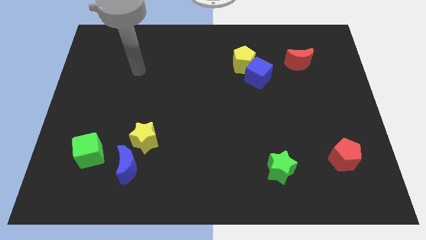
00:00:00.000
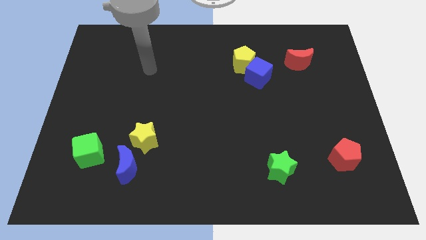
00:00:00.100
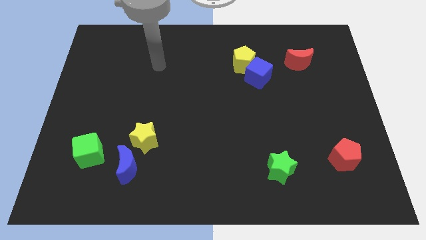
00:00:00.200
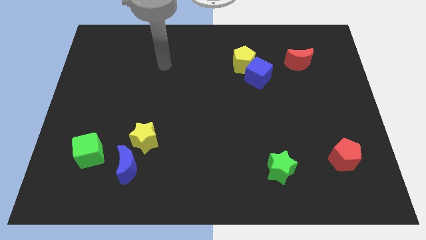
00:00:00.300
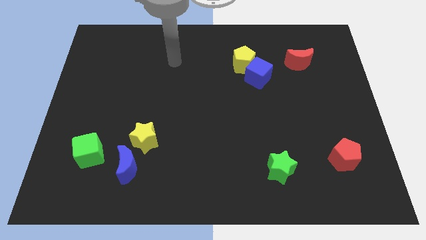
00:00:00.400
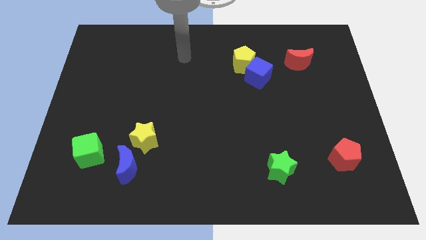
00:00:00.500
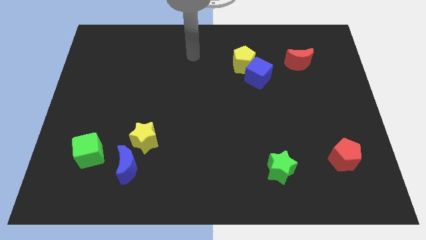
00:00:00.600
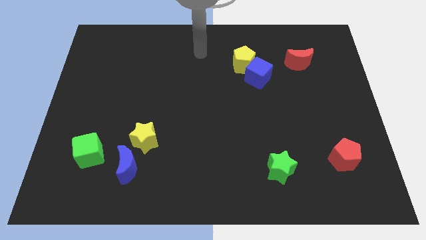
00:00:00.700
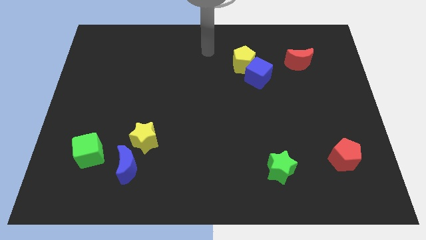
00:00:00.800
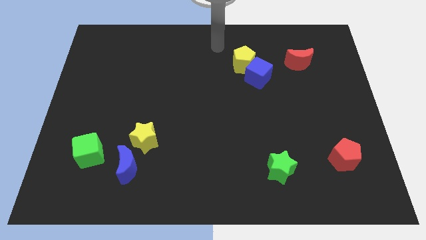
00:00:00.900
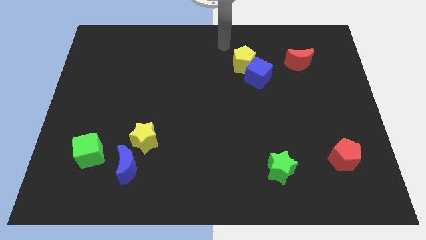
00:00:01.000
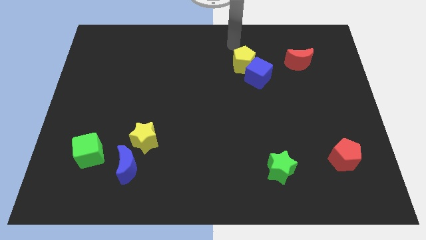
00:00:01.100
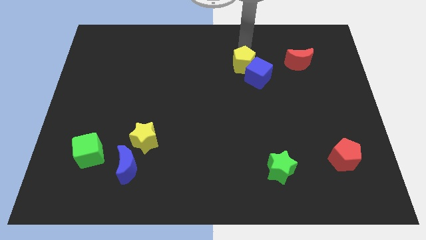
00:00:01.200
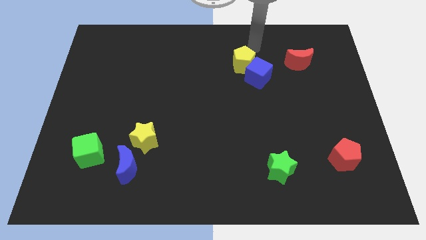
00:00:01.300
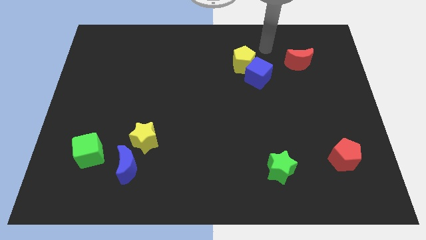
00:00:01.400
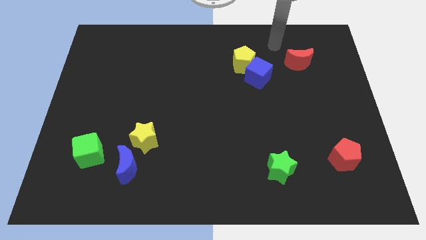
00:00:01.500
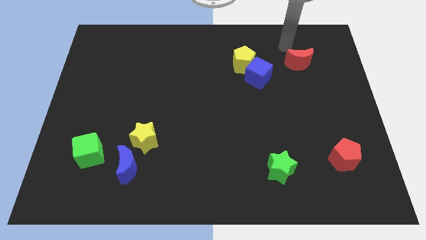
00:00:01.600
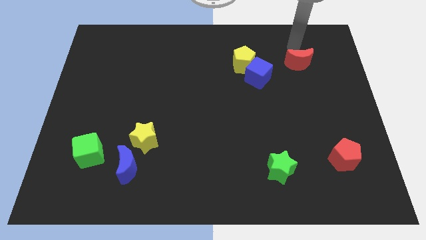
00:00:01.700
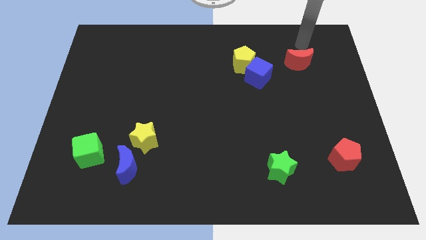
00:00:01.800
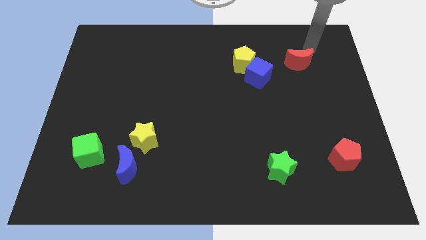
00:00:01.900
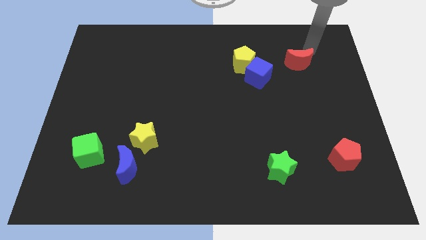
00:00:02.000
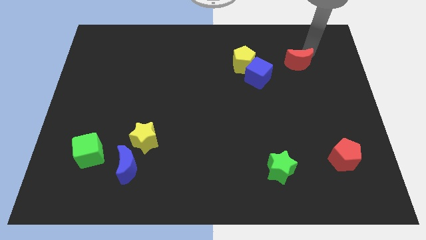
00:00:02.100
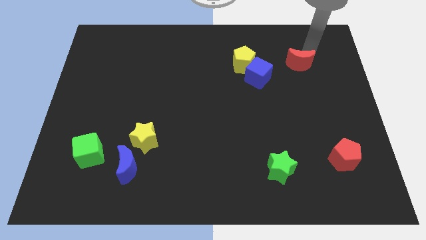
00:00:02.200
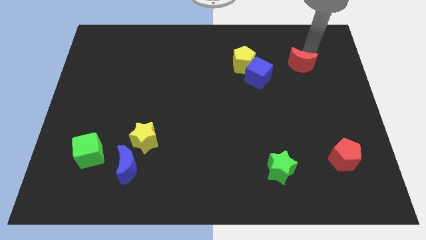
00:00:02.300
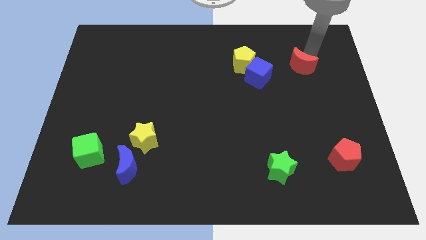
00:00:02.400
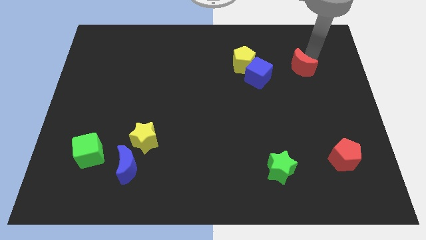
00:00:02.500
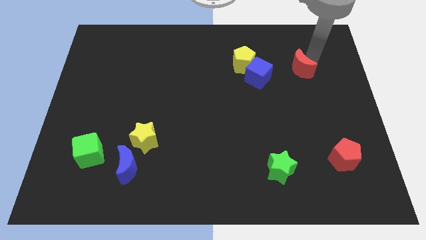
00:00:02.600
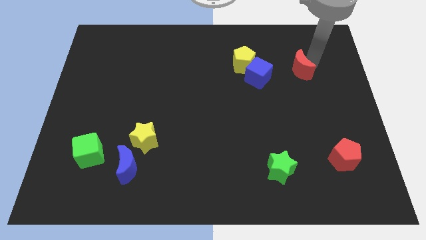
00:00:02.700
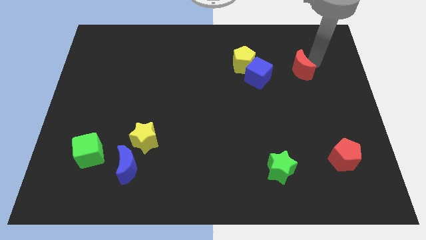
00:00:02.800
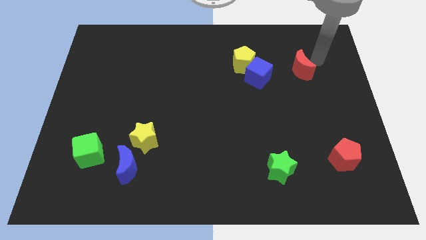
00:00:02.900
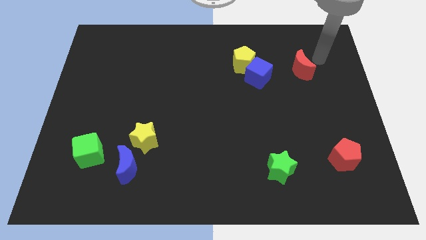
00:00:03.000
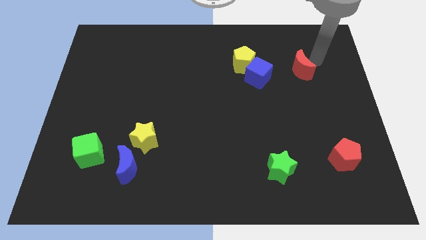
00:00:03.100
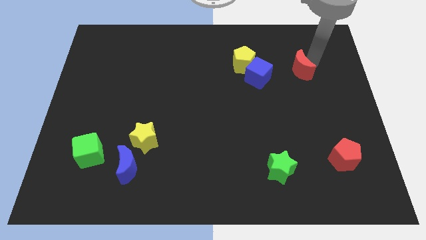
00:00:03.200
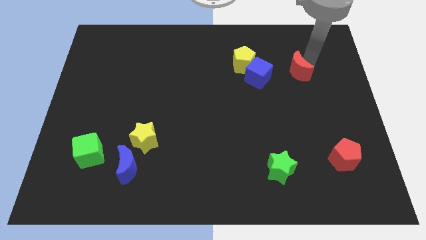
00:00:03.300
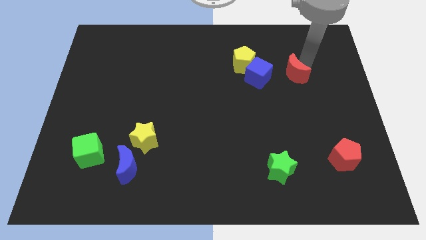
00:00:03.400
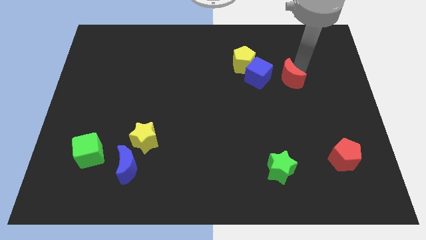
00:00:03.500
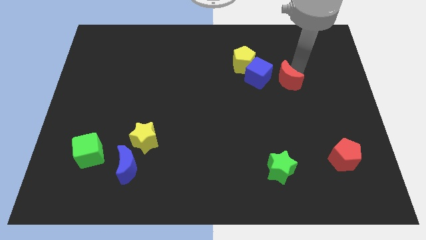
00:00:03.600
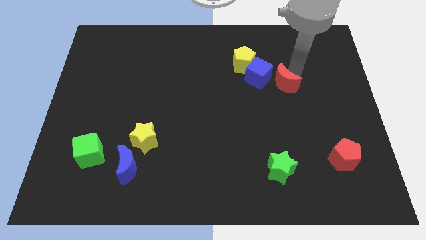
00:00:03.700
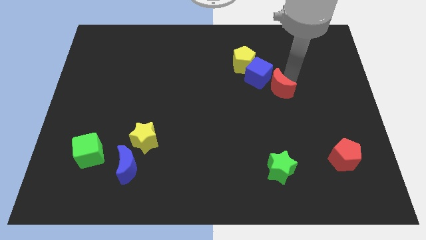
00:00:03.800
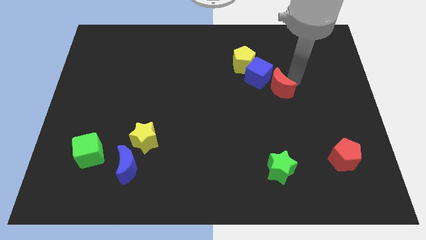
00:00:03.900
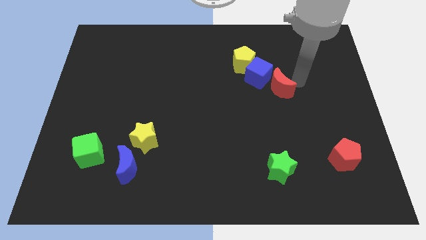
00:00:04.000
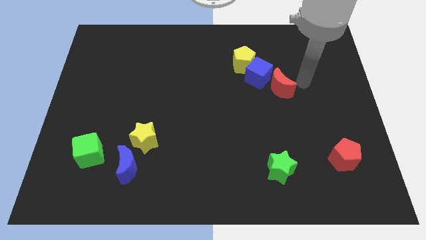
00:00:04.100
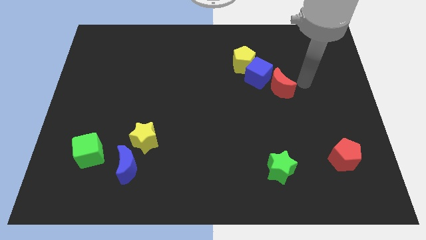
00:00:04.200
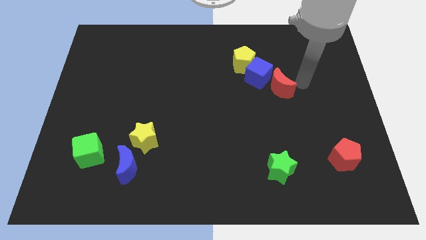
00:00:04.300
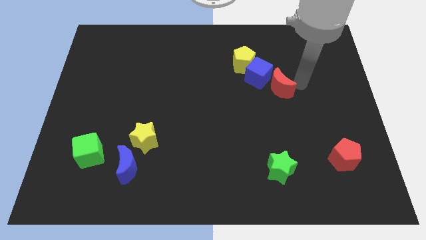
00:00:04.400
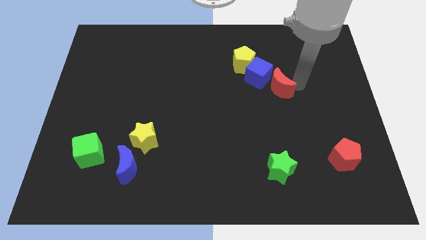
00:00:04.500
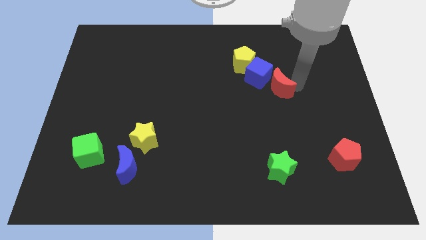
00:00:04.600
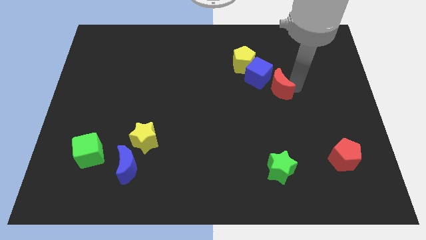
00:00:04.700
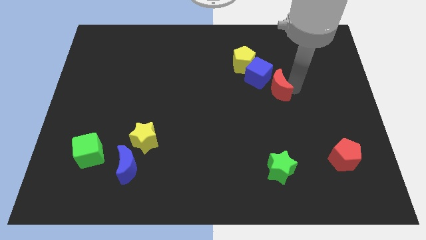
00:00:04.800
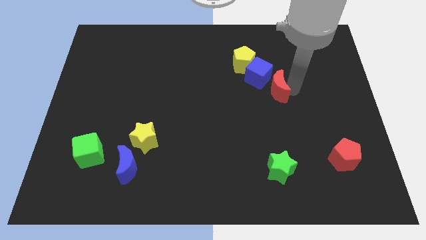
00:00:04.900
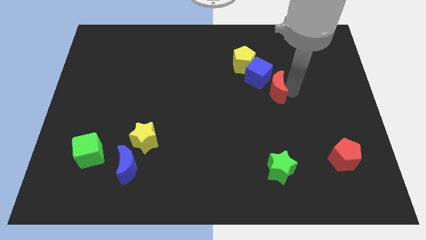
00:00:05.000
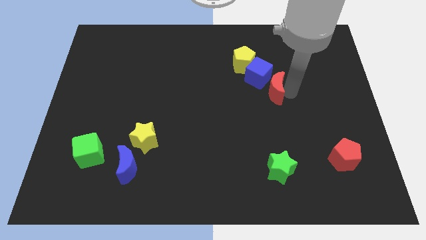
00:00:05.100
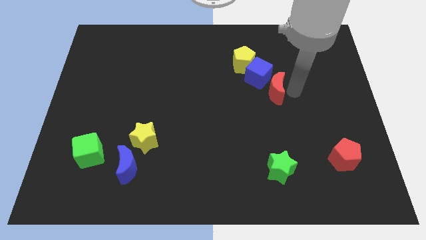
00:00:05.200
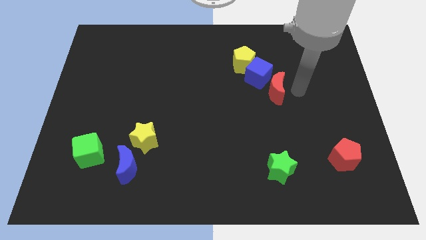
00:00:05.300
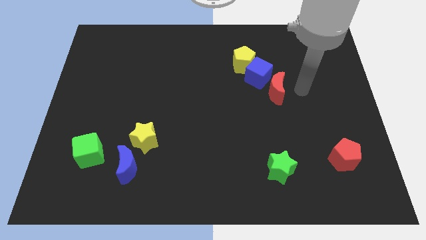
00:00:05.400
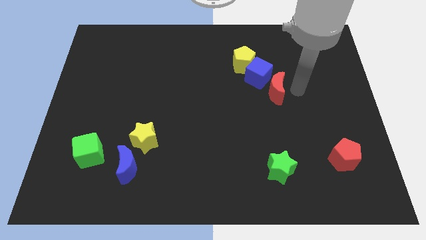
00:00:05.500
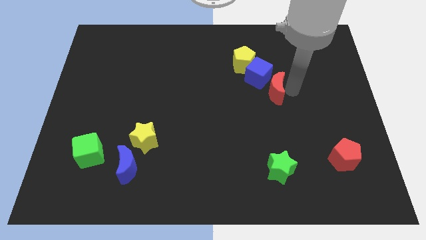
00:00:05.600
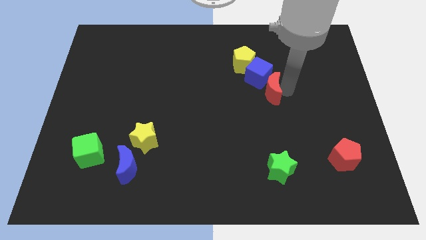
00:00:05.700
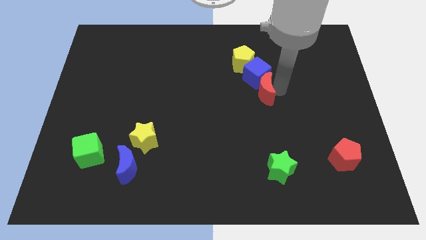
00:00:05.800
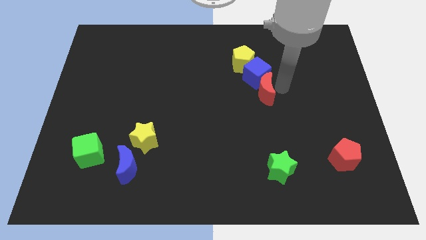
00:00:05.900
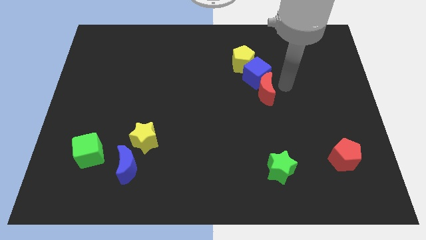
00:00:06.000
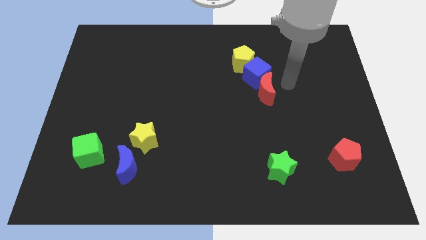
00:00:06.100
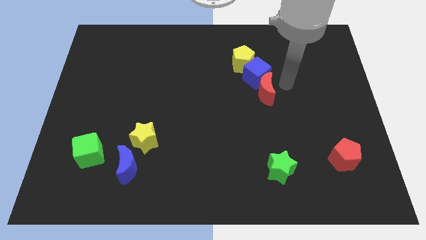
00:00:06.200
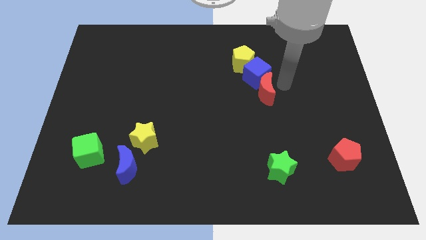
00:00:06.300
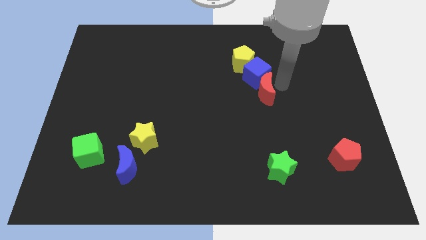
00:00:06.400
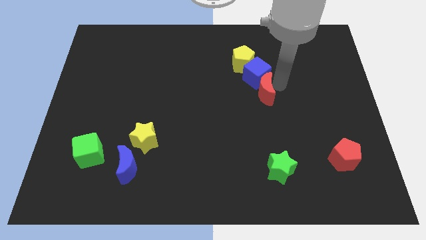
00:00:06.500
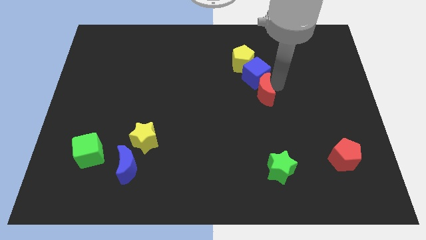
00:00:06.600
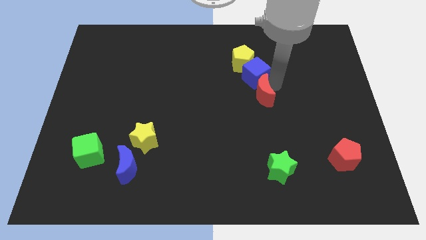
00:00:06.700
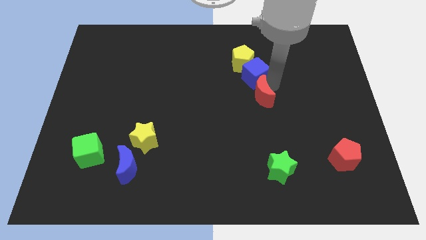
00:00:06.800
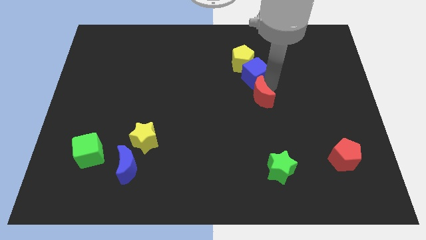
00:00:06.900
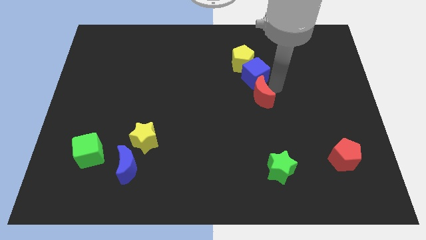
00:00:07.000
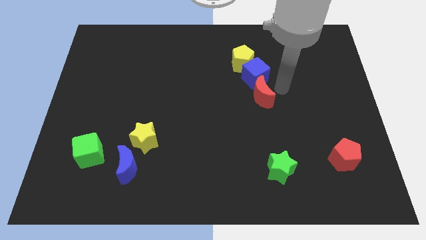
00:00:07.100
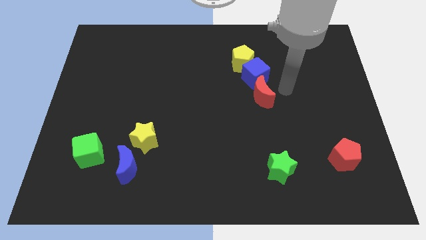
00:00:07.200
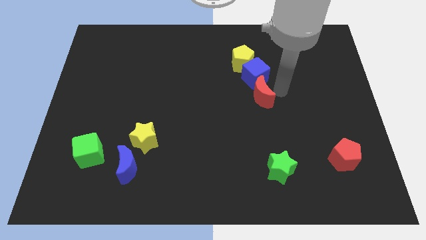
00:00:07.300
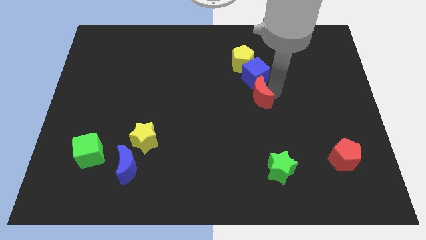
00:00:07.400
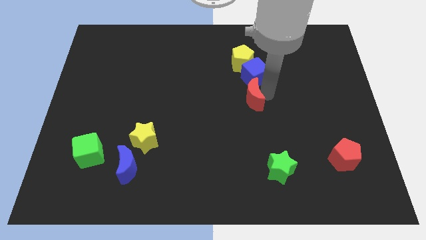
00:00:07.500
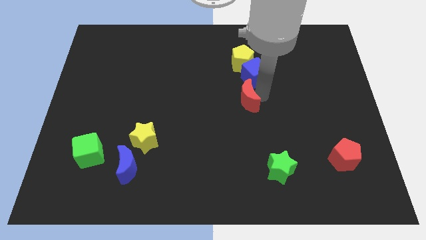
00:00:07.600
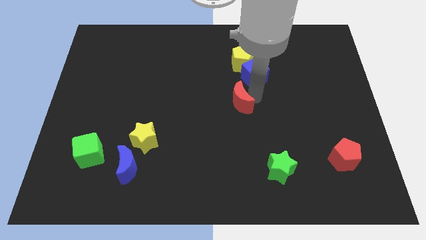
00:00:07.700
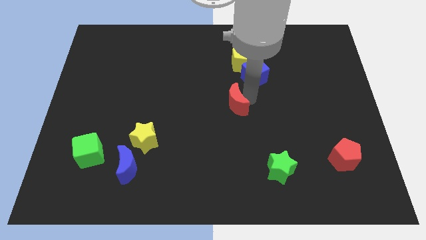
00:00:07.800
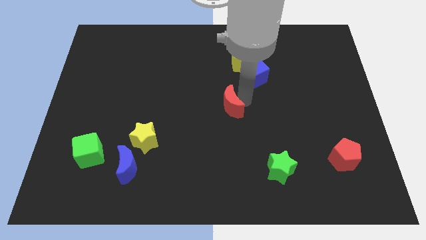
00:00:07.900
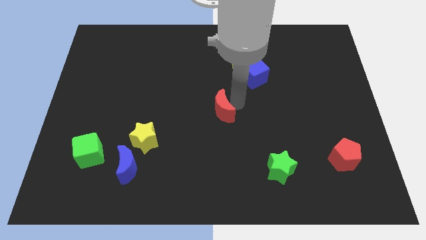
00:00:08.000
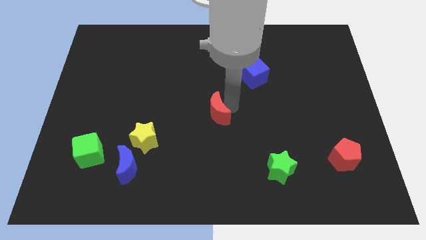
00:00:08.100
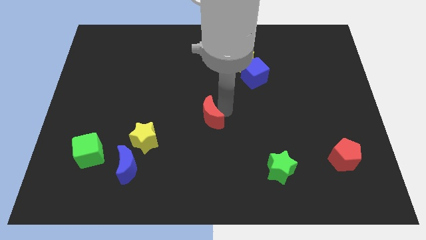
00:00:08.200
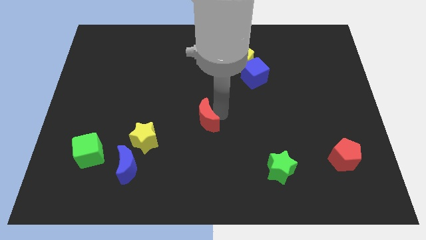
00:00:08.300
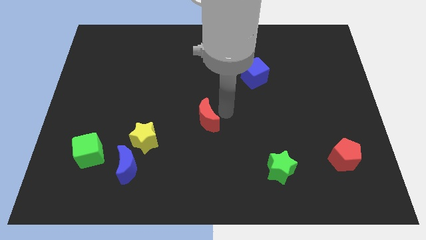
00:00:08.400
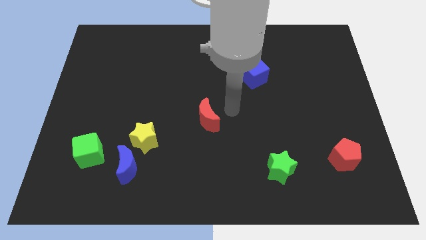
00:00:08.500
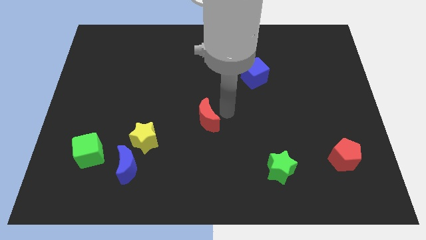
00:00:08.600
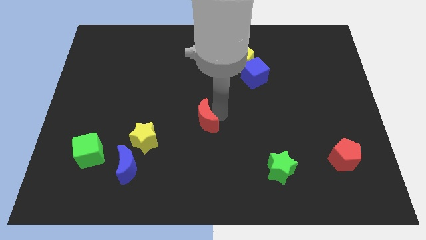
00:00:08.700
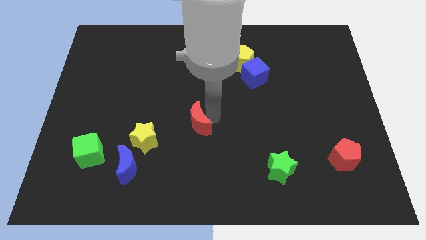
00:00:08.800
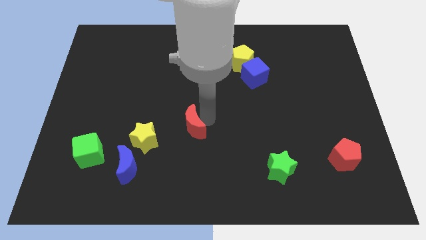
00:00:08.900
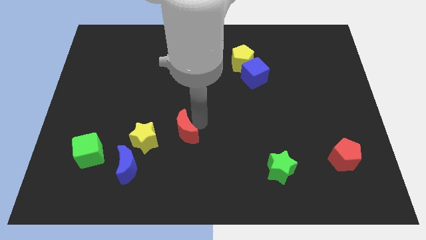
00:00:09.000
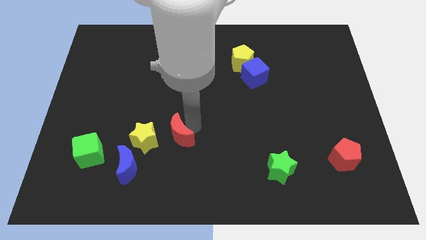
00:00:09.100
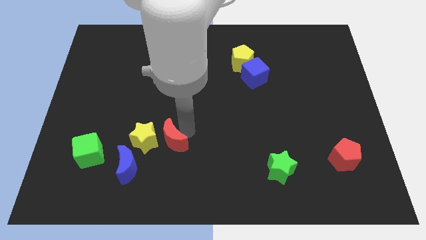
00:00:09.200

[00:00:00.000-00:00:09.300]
put the red moon to the top right side of the blue moon
